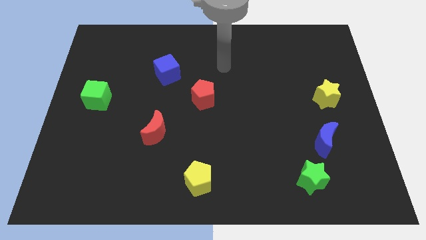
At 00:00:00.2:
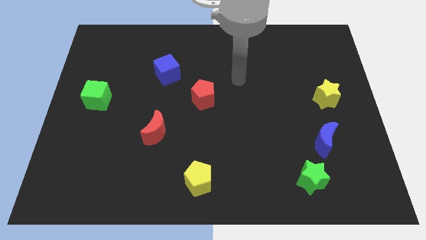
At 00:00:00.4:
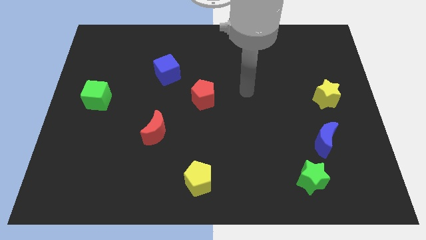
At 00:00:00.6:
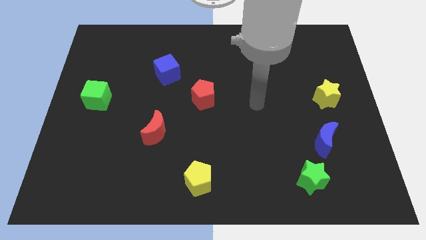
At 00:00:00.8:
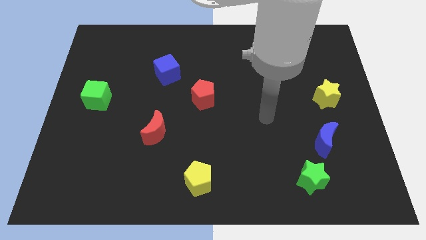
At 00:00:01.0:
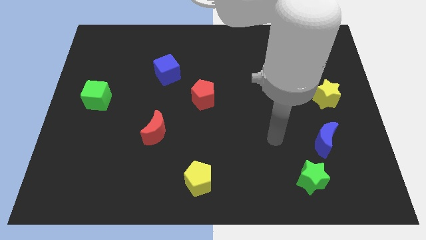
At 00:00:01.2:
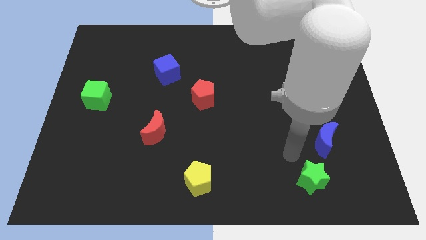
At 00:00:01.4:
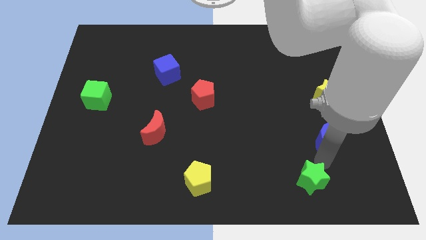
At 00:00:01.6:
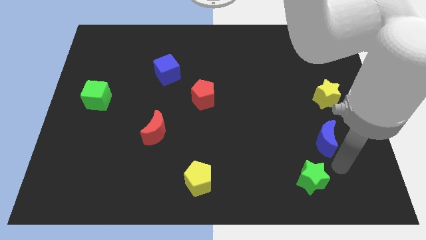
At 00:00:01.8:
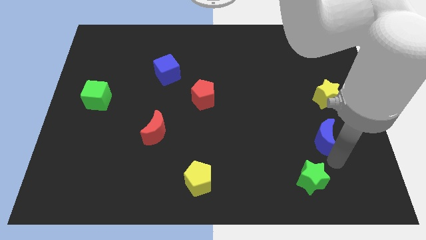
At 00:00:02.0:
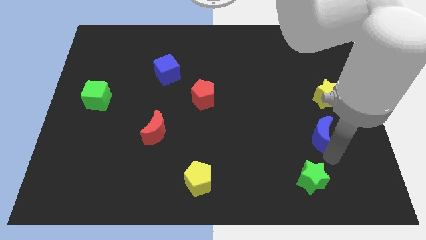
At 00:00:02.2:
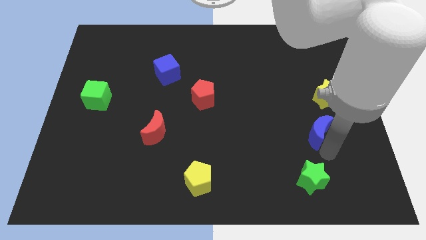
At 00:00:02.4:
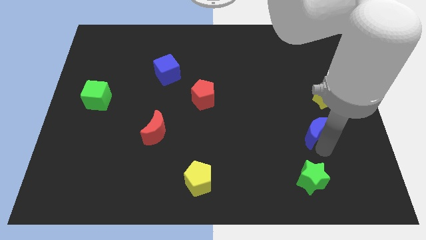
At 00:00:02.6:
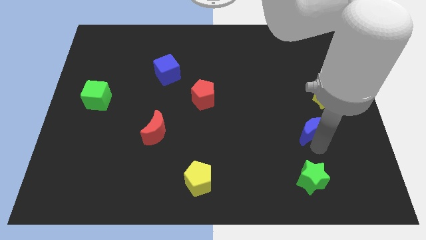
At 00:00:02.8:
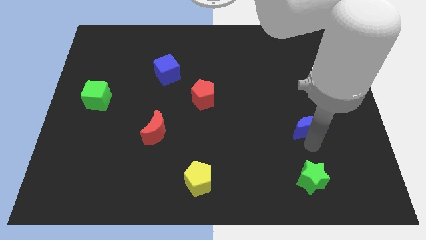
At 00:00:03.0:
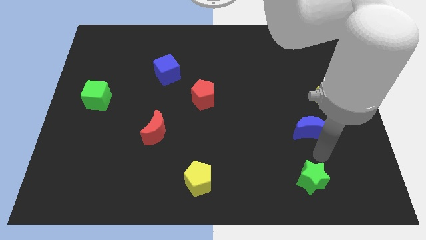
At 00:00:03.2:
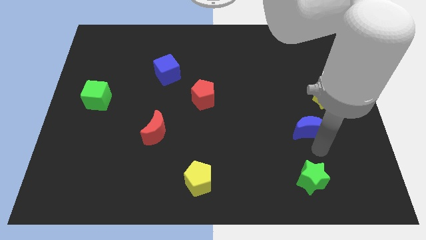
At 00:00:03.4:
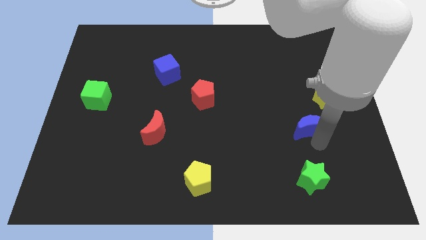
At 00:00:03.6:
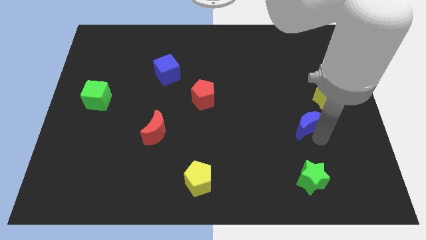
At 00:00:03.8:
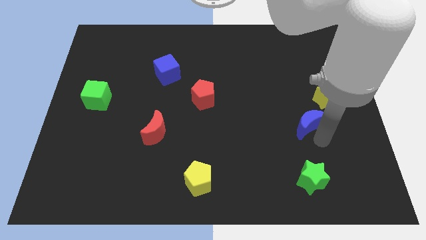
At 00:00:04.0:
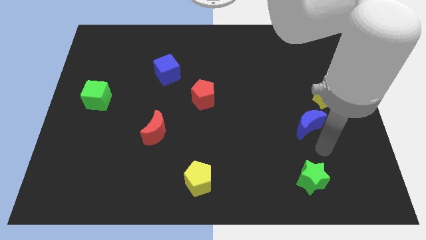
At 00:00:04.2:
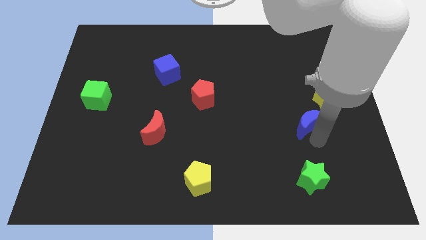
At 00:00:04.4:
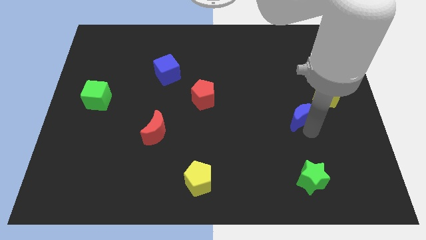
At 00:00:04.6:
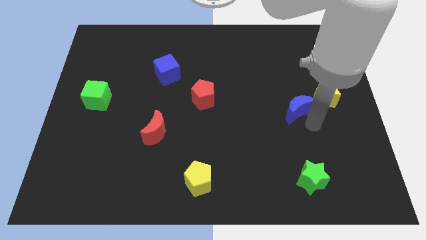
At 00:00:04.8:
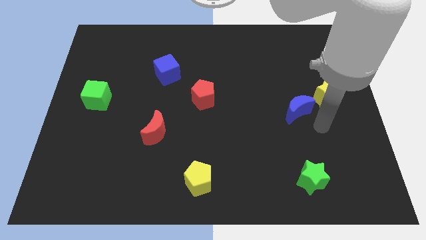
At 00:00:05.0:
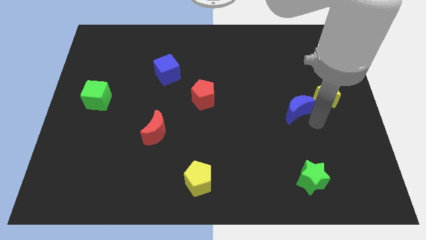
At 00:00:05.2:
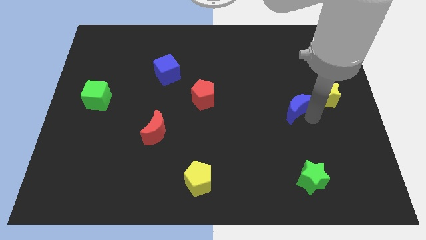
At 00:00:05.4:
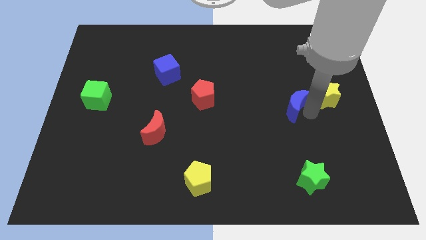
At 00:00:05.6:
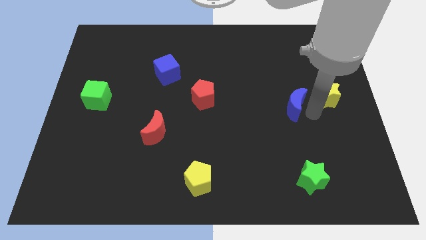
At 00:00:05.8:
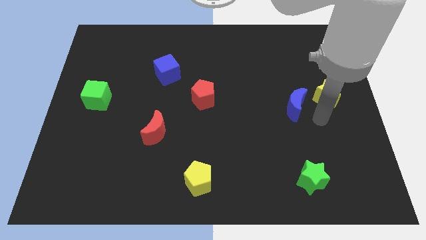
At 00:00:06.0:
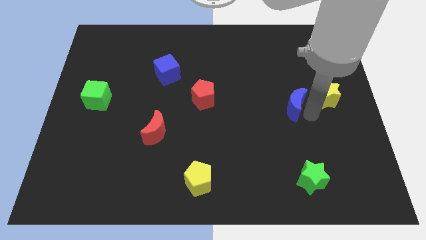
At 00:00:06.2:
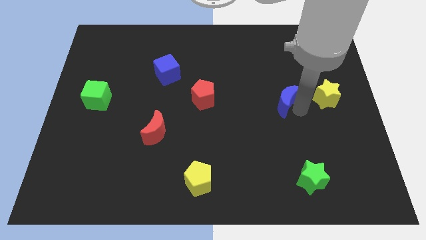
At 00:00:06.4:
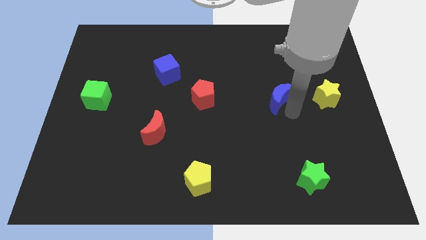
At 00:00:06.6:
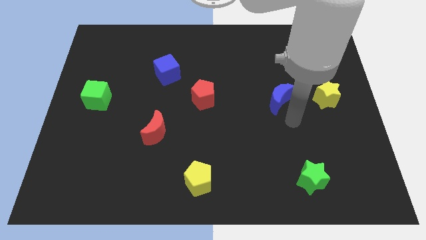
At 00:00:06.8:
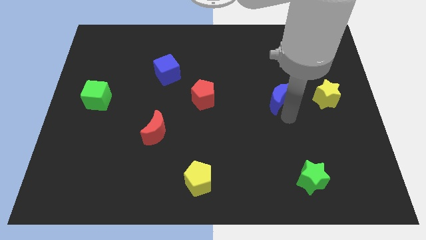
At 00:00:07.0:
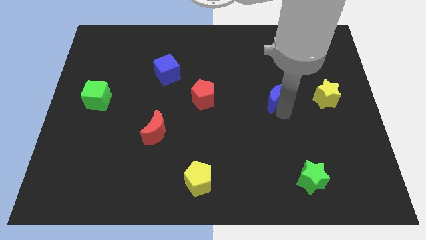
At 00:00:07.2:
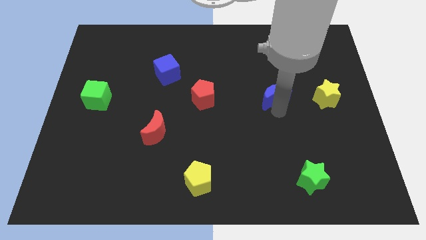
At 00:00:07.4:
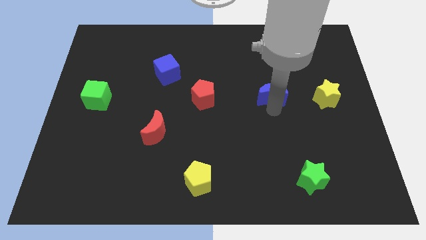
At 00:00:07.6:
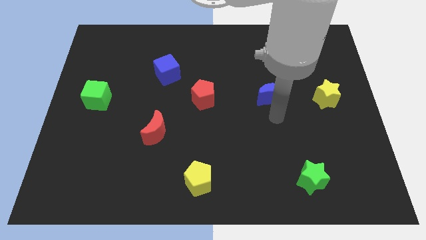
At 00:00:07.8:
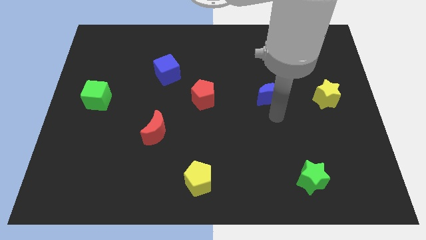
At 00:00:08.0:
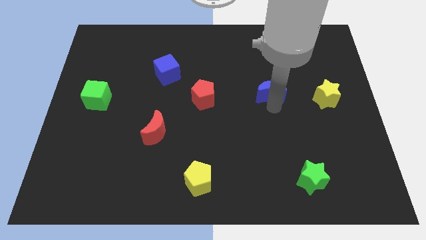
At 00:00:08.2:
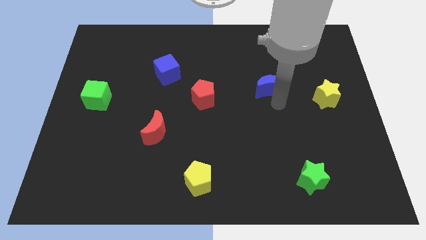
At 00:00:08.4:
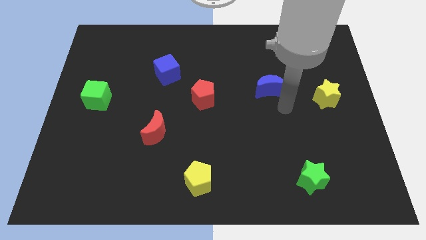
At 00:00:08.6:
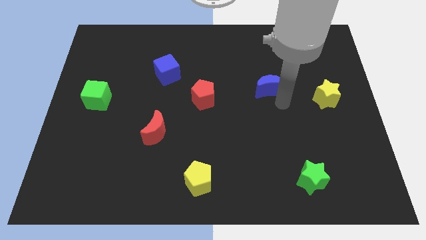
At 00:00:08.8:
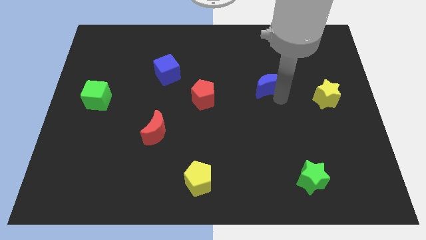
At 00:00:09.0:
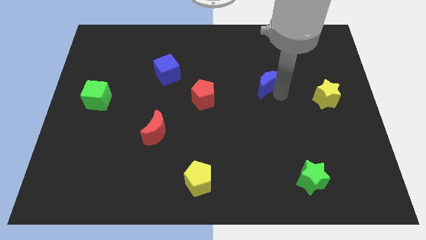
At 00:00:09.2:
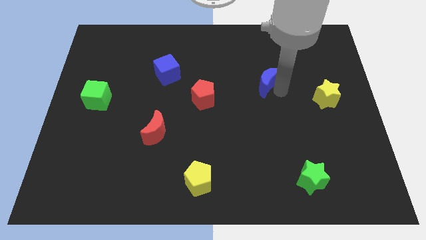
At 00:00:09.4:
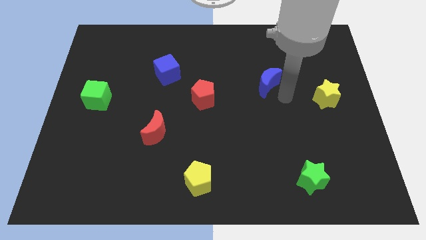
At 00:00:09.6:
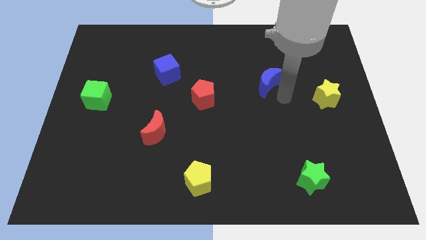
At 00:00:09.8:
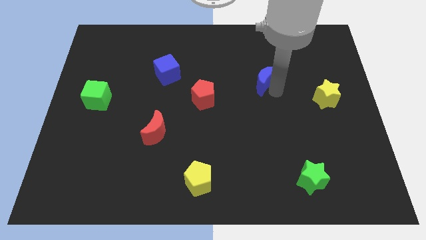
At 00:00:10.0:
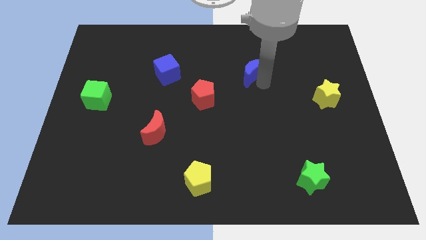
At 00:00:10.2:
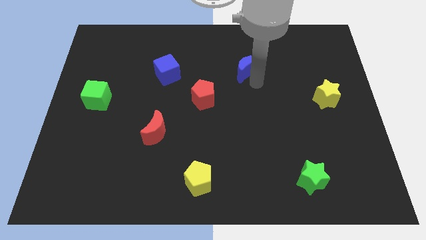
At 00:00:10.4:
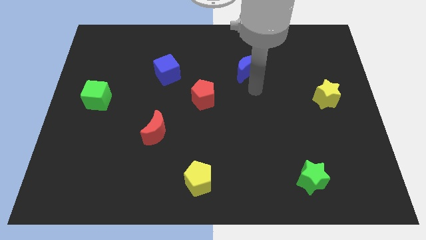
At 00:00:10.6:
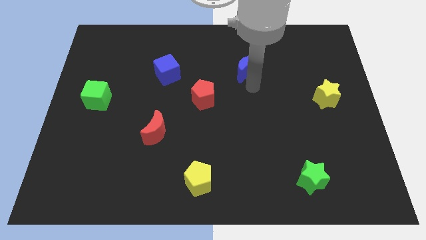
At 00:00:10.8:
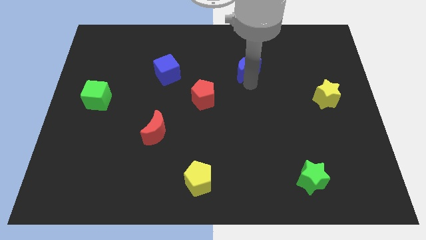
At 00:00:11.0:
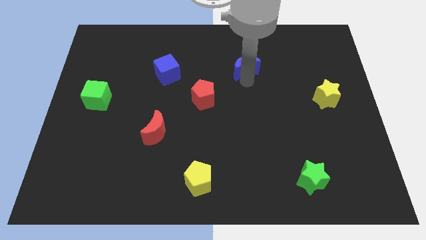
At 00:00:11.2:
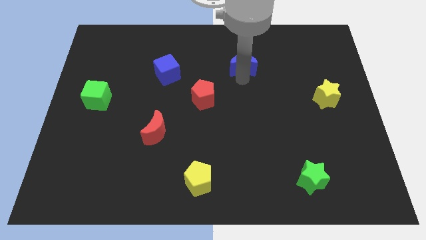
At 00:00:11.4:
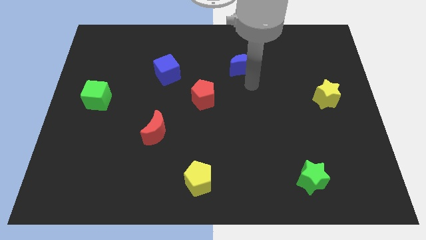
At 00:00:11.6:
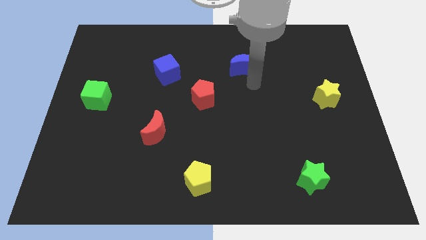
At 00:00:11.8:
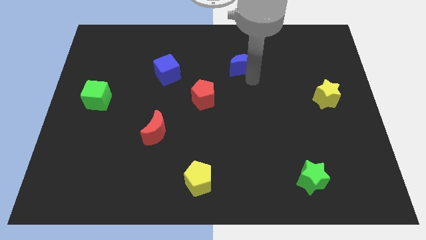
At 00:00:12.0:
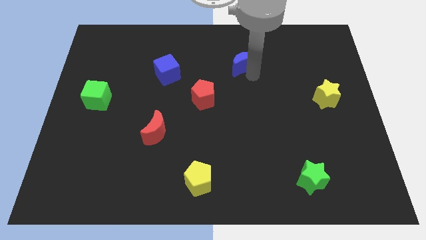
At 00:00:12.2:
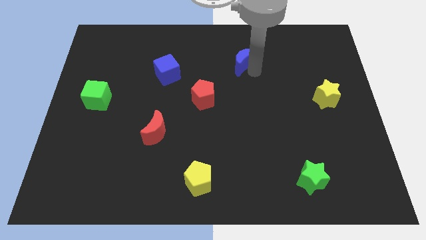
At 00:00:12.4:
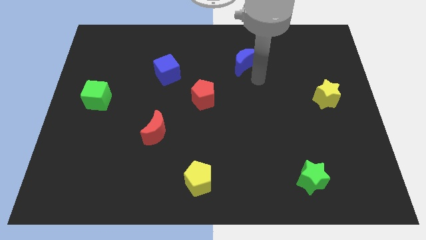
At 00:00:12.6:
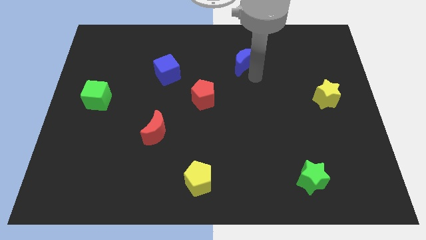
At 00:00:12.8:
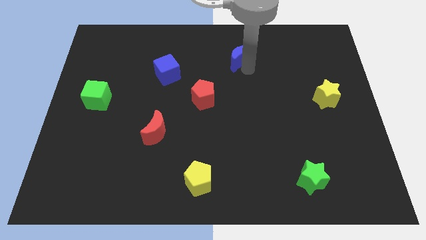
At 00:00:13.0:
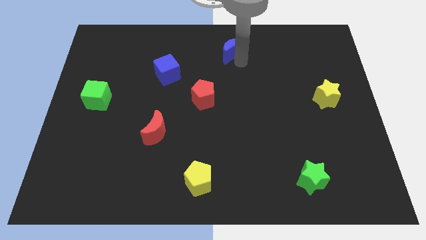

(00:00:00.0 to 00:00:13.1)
put the blue moon to the top
